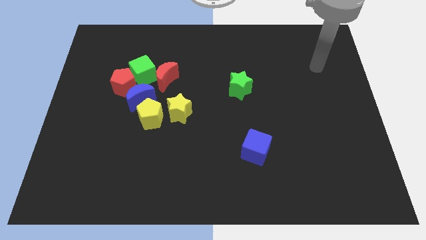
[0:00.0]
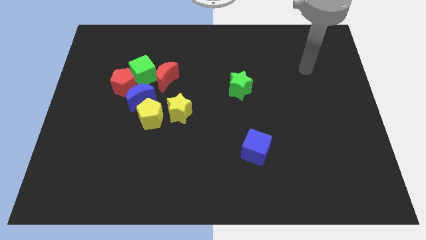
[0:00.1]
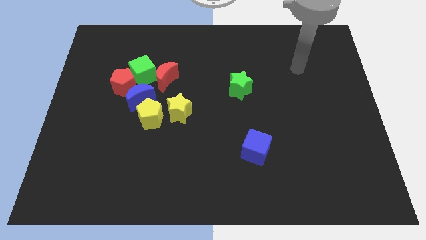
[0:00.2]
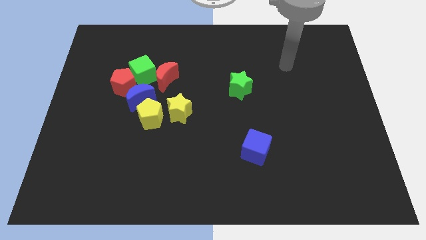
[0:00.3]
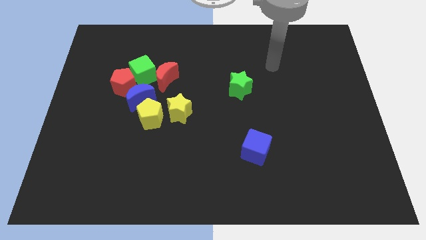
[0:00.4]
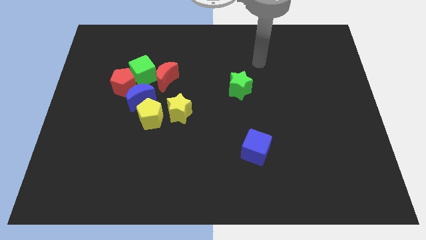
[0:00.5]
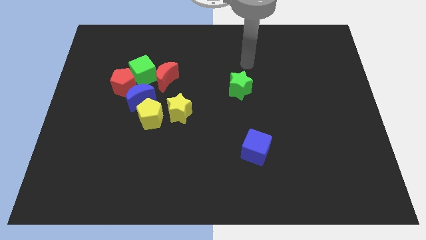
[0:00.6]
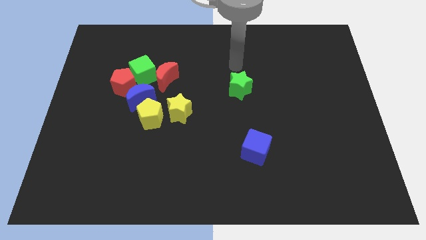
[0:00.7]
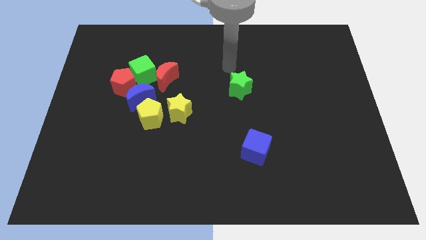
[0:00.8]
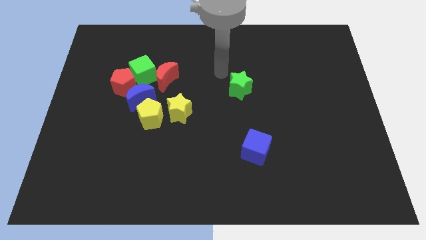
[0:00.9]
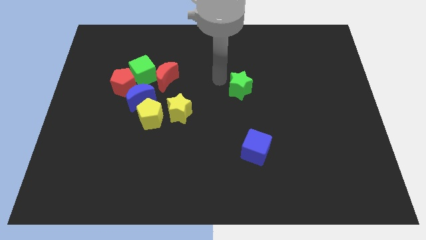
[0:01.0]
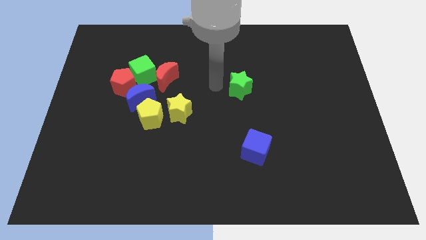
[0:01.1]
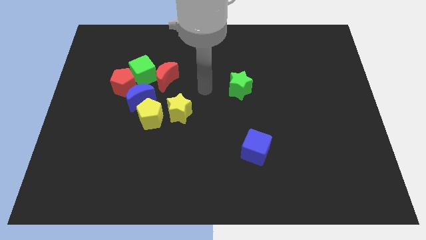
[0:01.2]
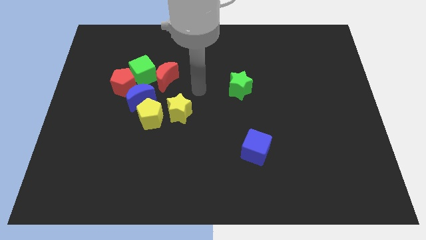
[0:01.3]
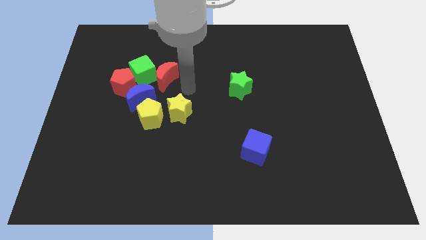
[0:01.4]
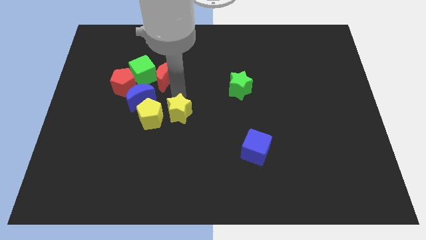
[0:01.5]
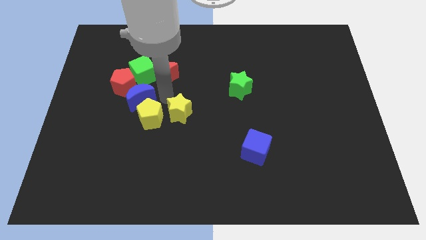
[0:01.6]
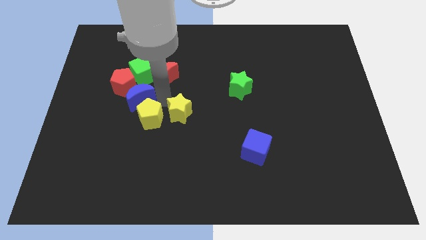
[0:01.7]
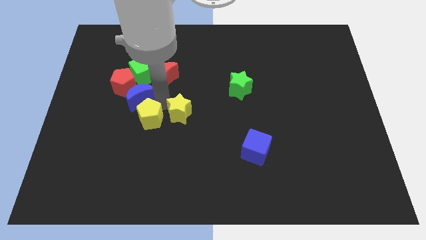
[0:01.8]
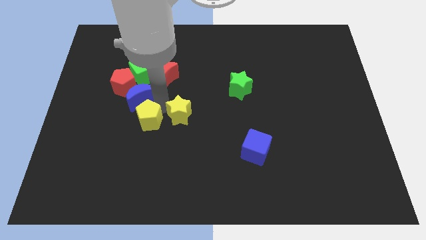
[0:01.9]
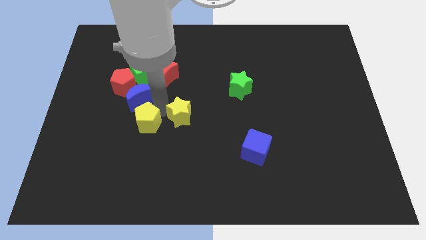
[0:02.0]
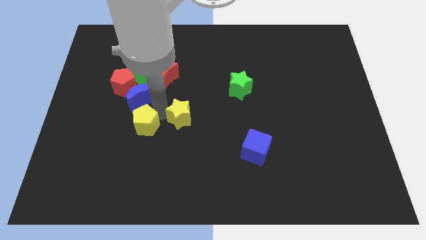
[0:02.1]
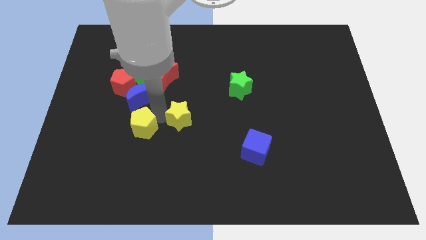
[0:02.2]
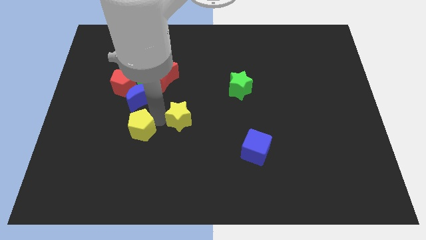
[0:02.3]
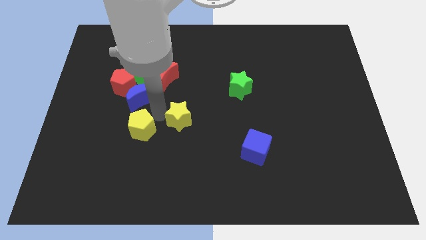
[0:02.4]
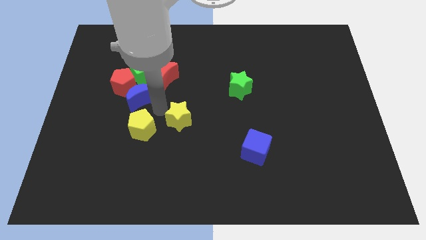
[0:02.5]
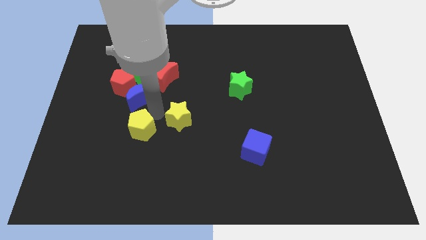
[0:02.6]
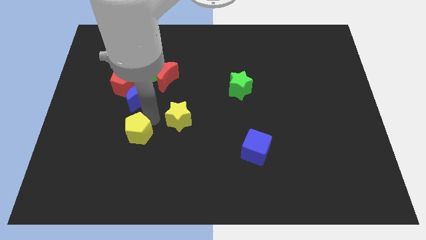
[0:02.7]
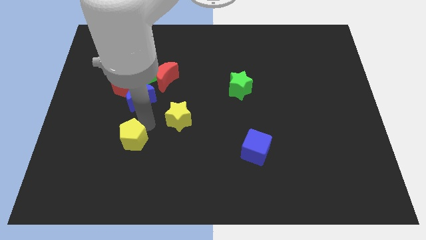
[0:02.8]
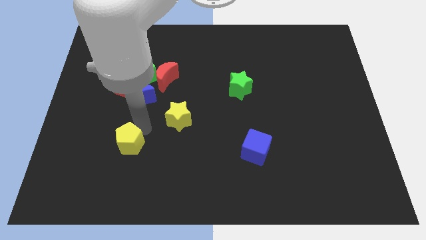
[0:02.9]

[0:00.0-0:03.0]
separate the yellow pentagon from the blue moon and yellow star

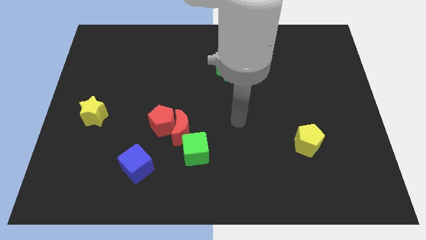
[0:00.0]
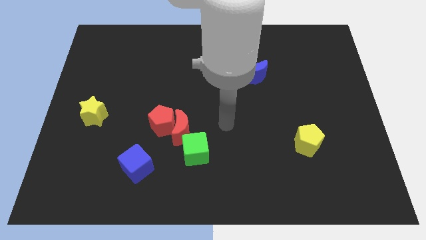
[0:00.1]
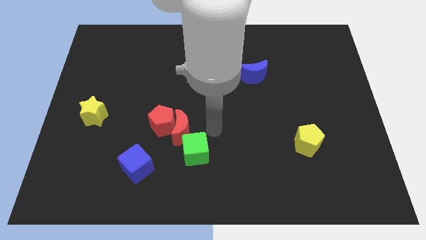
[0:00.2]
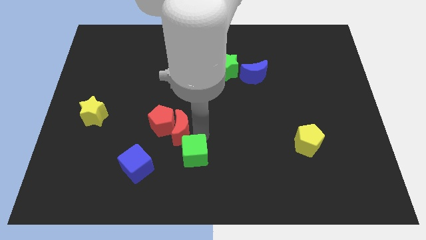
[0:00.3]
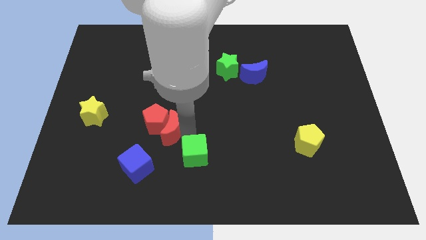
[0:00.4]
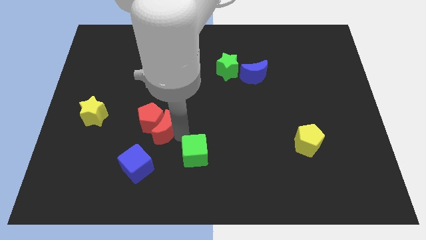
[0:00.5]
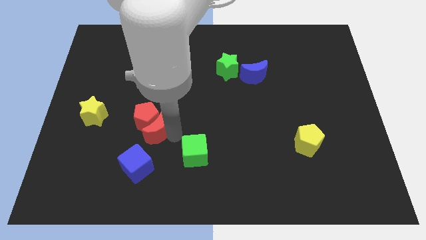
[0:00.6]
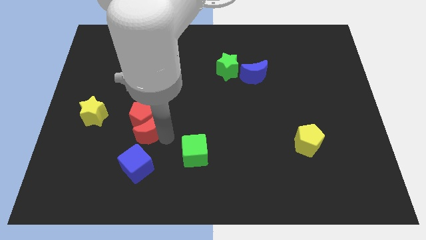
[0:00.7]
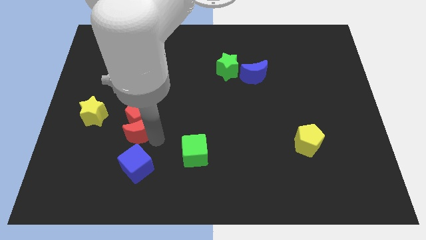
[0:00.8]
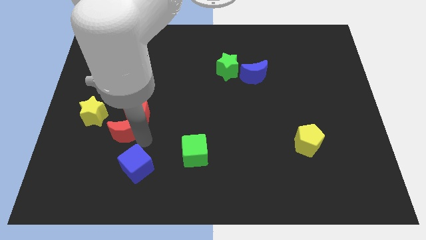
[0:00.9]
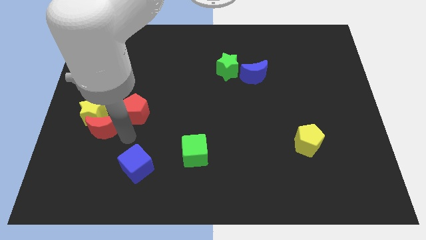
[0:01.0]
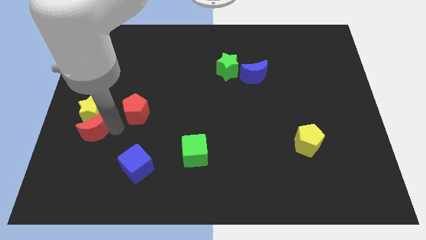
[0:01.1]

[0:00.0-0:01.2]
pull the red pentagon apart from the red moon

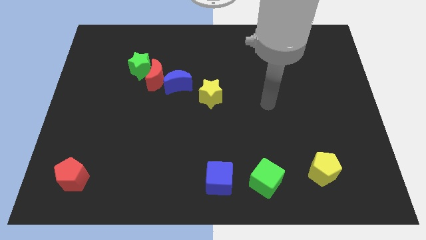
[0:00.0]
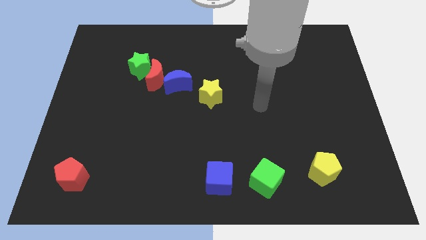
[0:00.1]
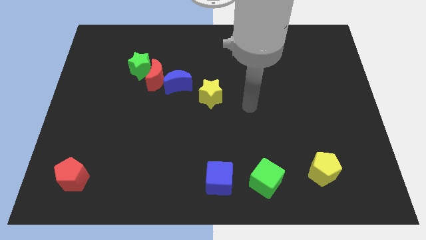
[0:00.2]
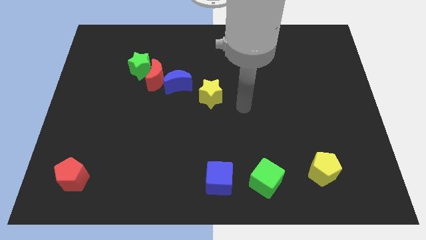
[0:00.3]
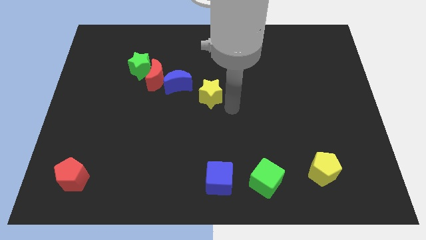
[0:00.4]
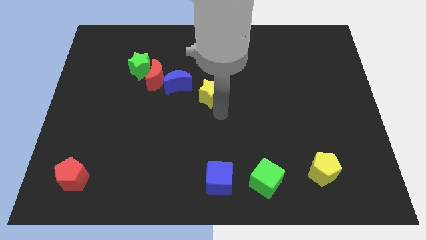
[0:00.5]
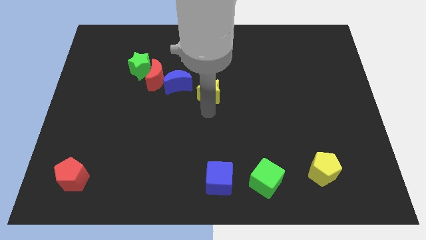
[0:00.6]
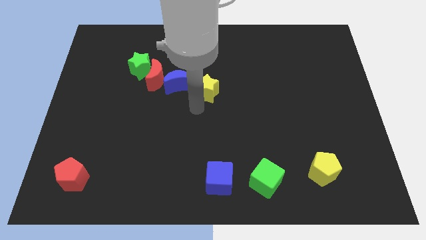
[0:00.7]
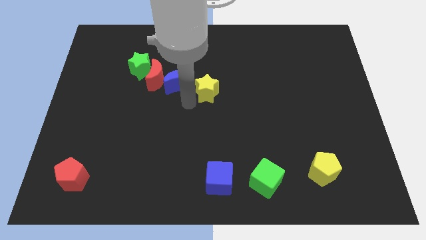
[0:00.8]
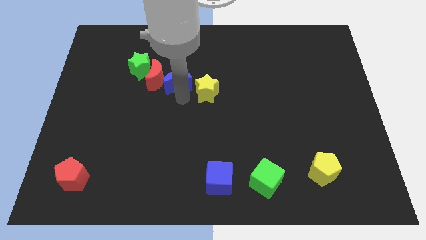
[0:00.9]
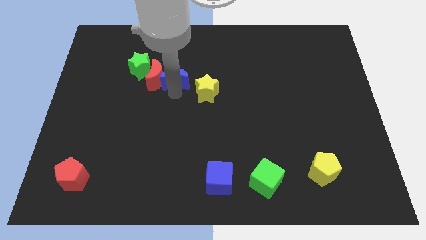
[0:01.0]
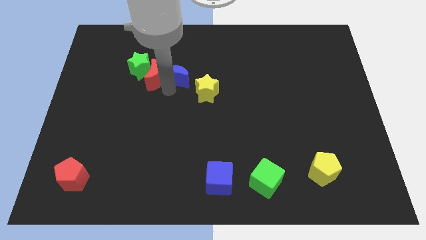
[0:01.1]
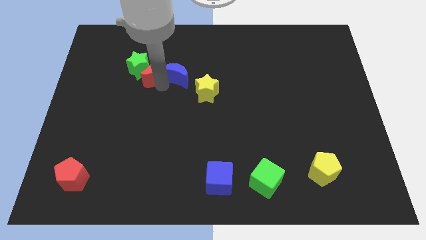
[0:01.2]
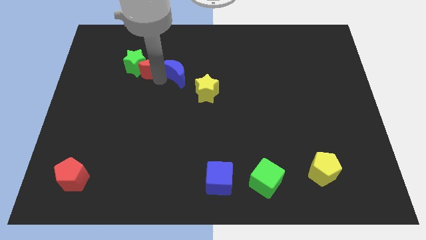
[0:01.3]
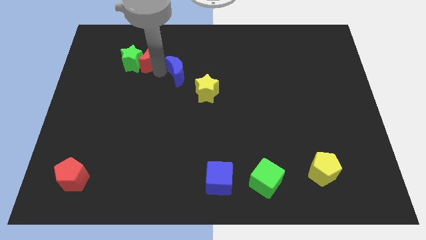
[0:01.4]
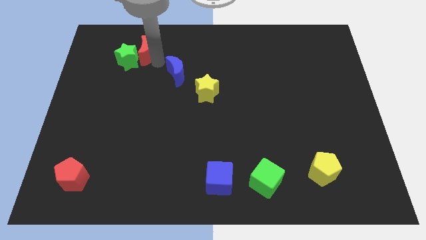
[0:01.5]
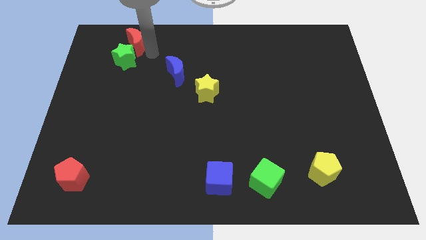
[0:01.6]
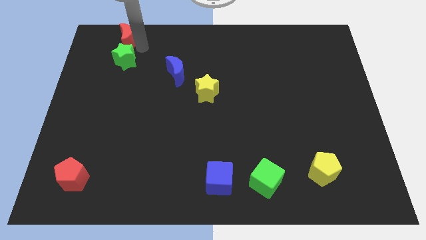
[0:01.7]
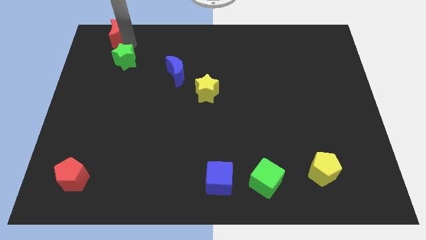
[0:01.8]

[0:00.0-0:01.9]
pull the green star apart from the red moon

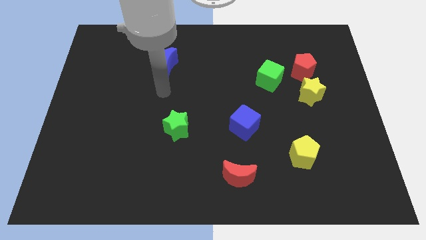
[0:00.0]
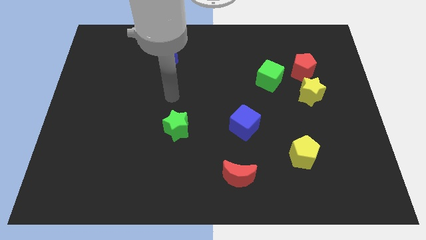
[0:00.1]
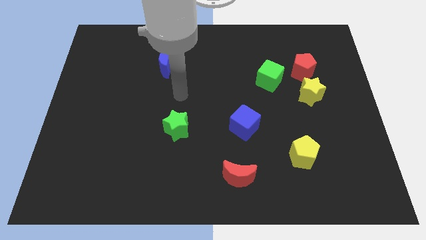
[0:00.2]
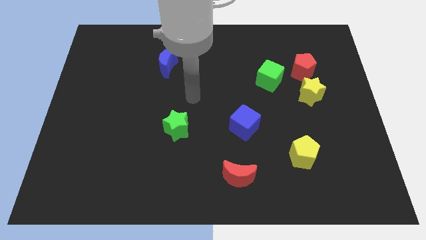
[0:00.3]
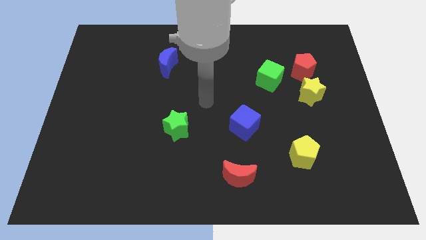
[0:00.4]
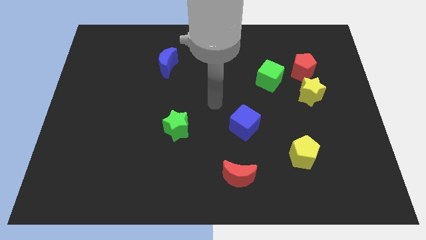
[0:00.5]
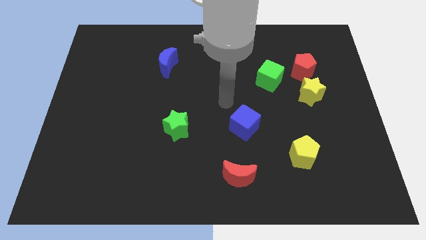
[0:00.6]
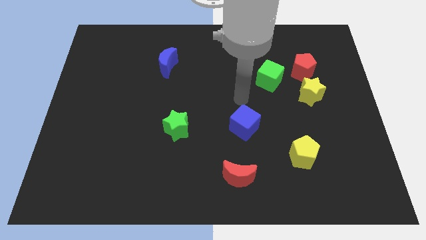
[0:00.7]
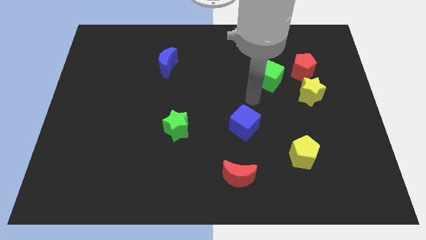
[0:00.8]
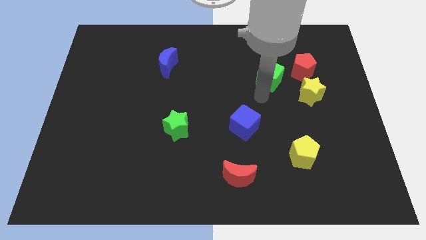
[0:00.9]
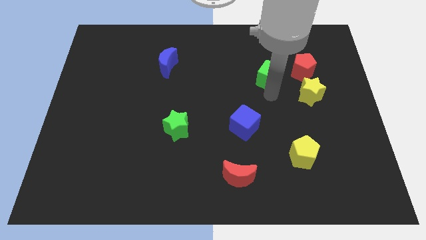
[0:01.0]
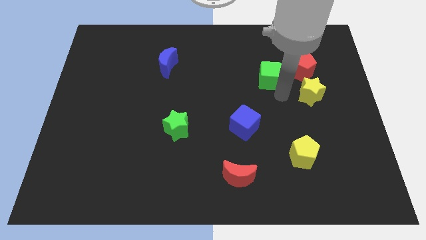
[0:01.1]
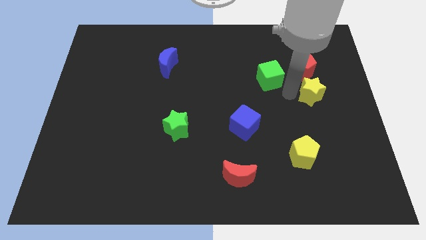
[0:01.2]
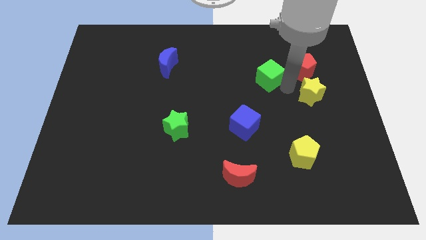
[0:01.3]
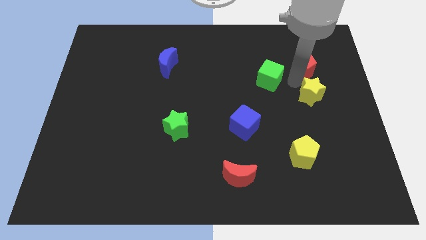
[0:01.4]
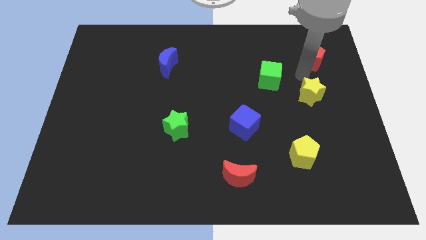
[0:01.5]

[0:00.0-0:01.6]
separate the yellow star from the red pentagon

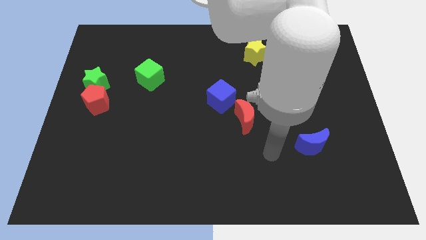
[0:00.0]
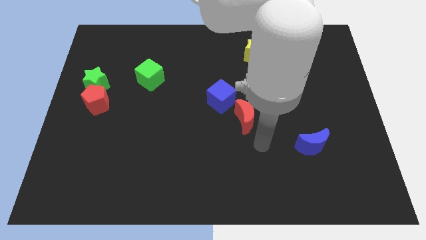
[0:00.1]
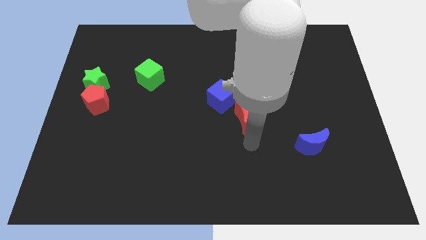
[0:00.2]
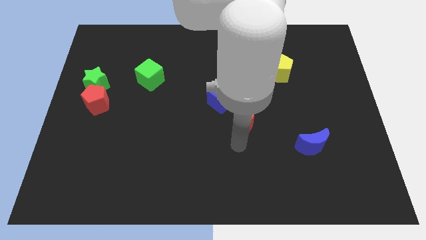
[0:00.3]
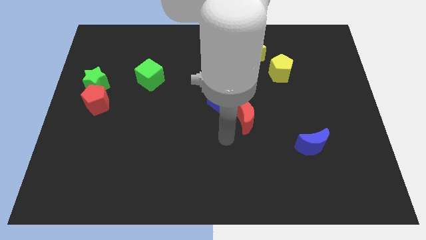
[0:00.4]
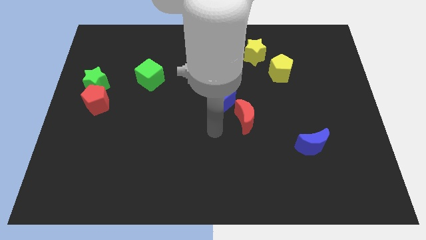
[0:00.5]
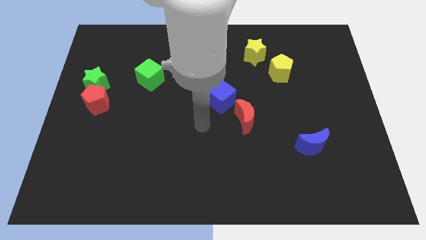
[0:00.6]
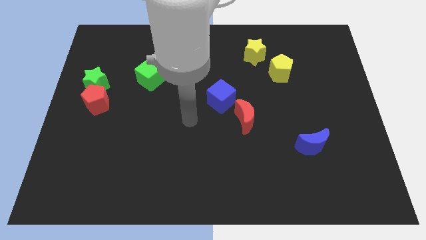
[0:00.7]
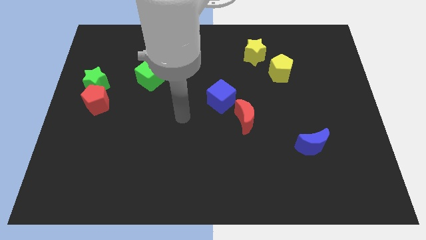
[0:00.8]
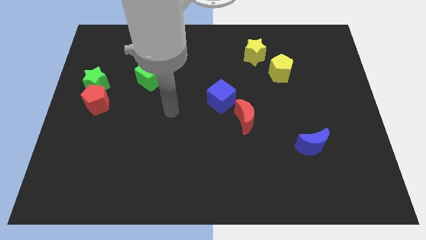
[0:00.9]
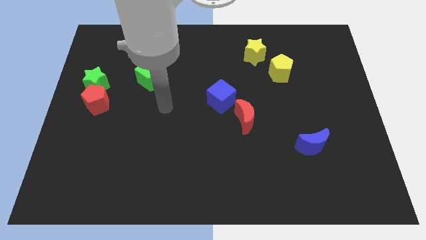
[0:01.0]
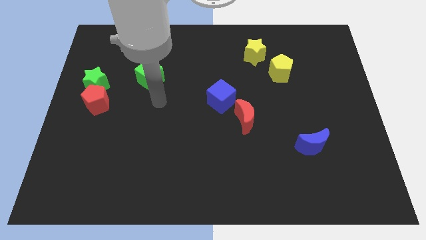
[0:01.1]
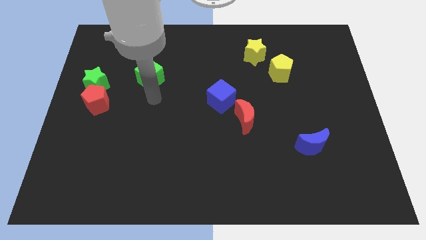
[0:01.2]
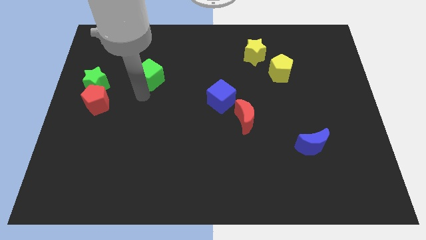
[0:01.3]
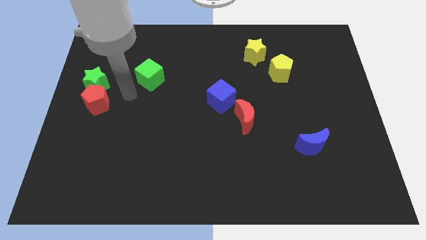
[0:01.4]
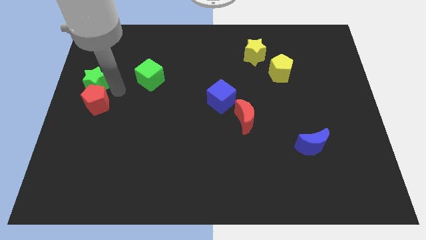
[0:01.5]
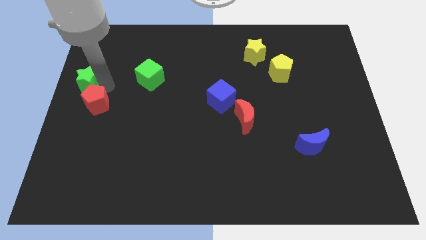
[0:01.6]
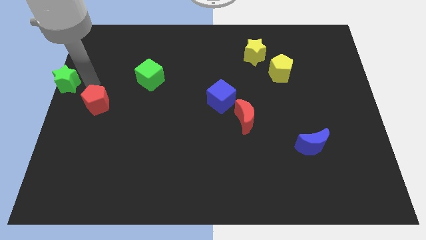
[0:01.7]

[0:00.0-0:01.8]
separate the red pentagon from the green star
